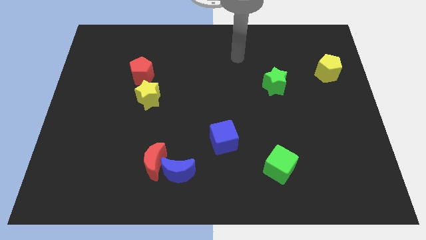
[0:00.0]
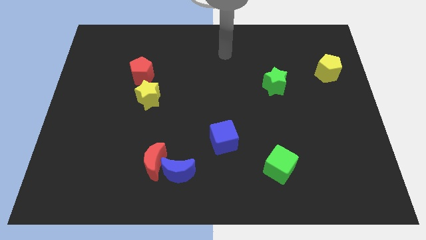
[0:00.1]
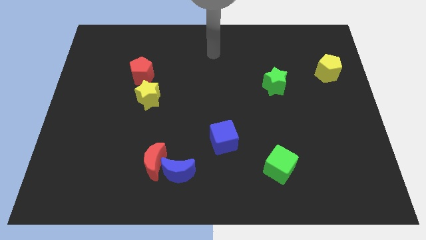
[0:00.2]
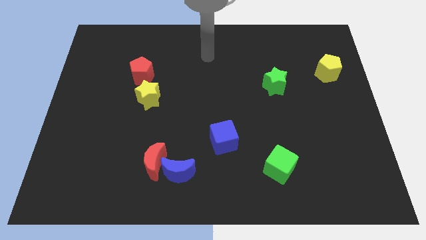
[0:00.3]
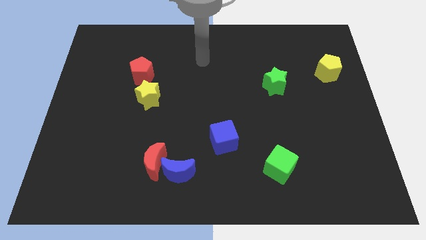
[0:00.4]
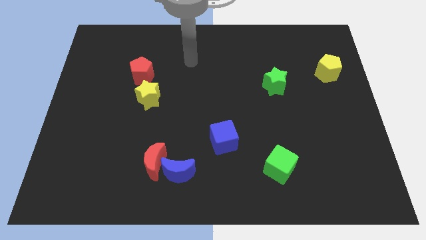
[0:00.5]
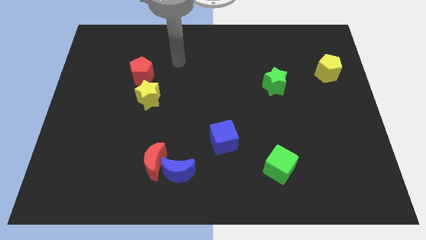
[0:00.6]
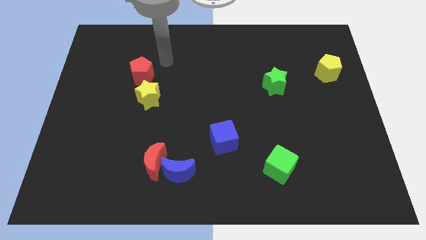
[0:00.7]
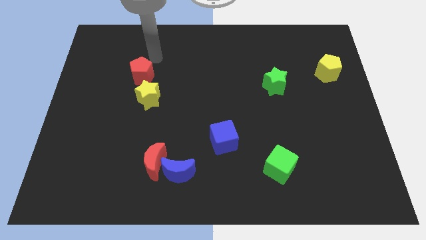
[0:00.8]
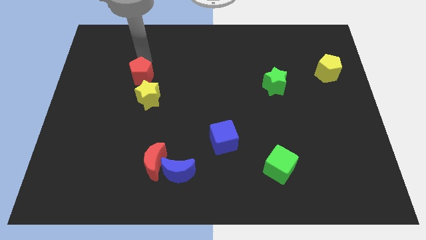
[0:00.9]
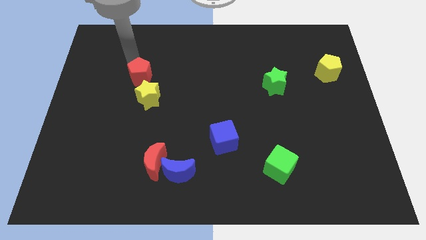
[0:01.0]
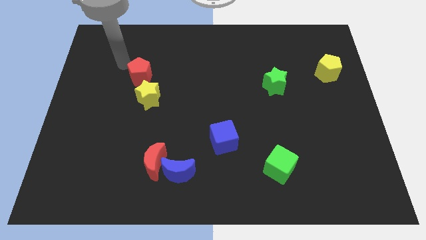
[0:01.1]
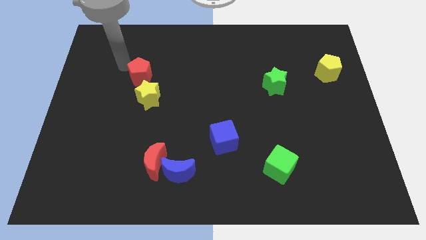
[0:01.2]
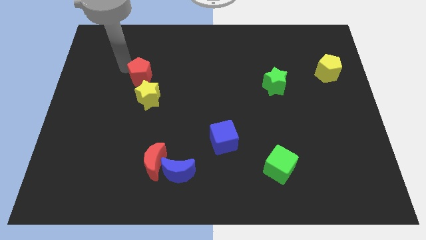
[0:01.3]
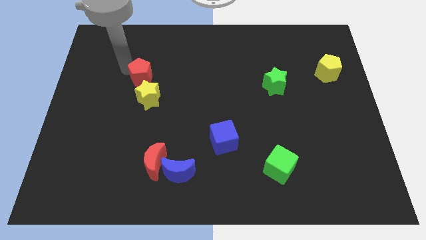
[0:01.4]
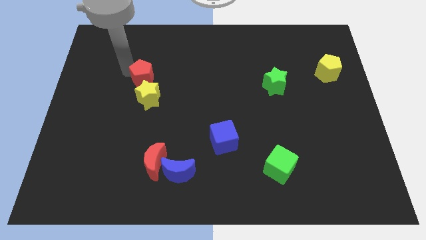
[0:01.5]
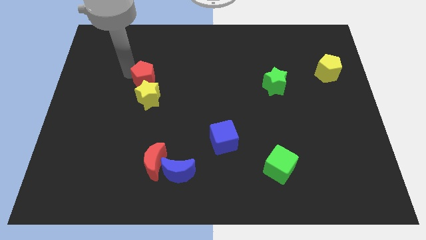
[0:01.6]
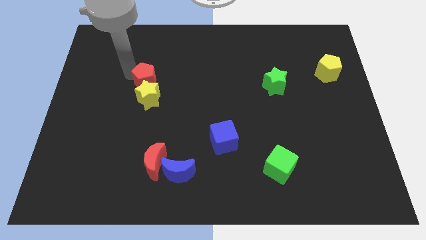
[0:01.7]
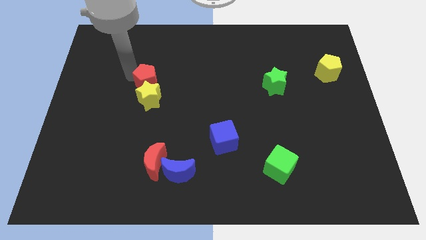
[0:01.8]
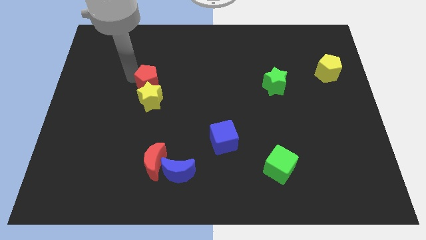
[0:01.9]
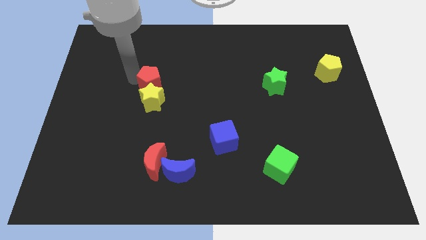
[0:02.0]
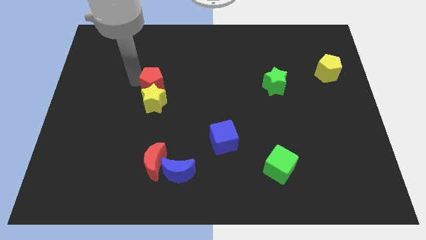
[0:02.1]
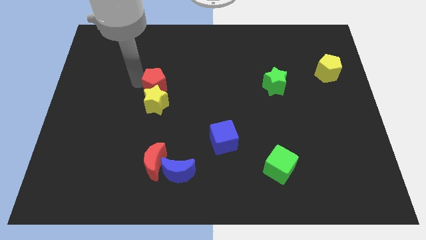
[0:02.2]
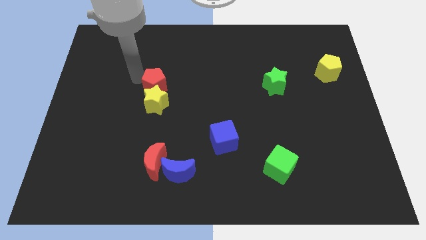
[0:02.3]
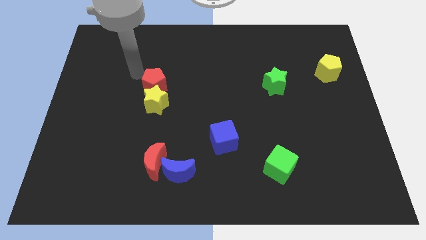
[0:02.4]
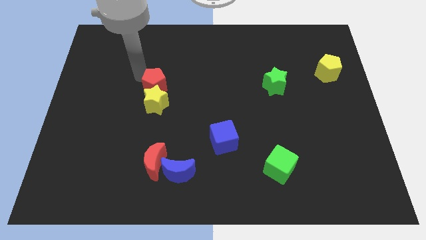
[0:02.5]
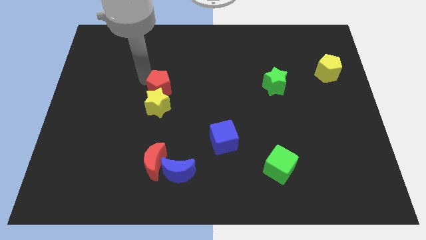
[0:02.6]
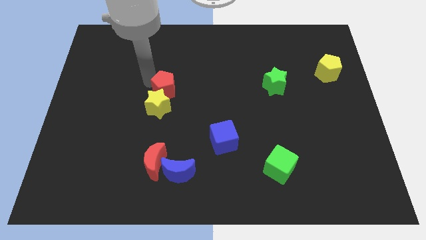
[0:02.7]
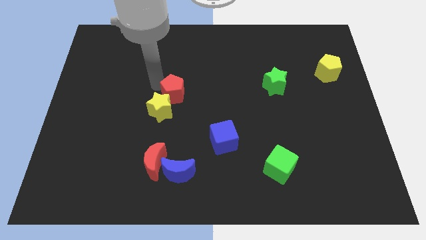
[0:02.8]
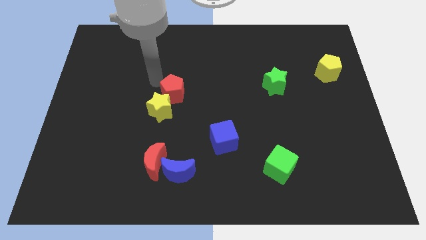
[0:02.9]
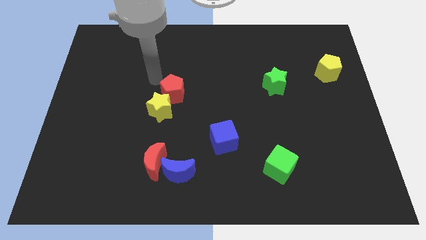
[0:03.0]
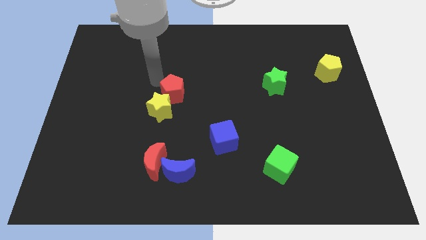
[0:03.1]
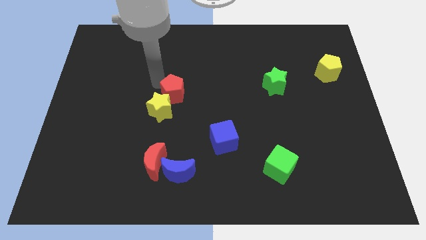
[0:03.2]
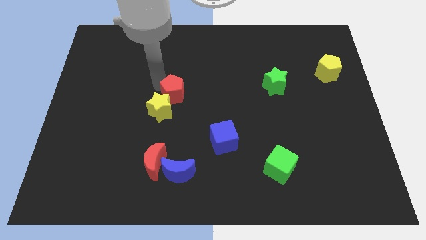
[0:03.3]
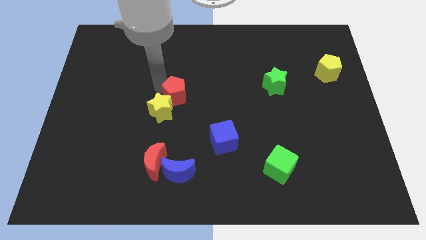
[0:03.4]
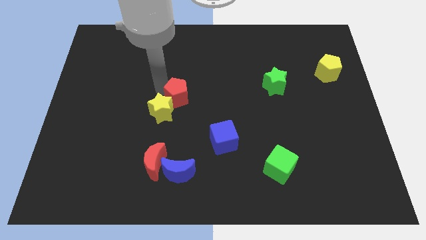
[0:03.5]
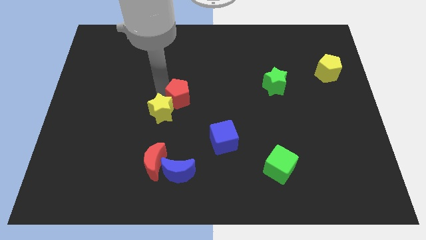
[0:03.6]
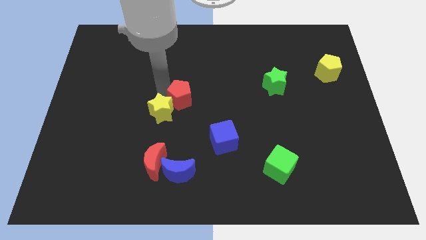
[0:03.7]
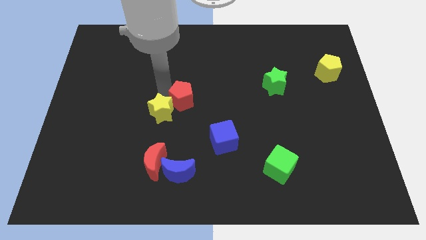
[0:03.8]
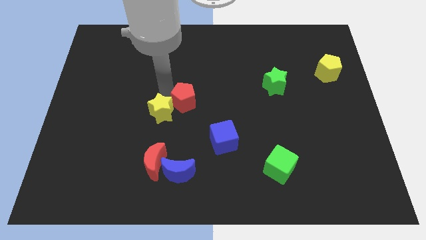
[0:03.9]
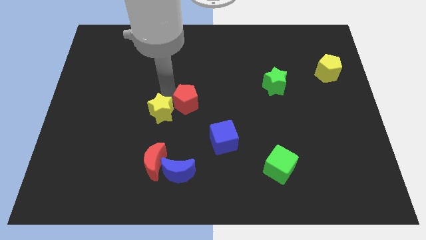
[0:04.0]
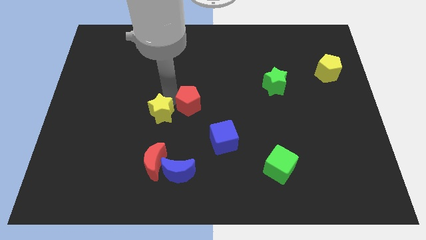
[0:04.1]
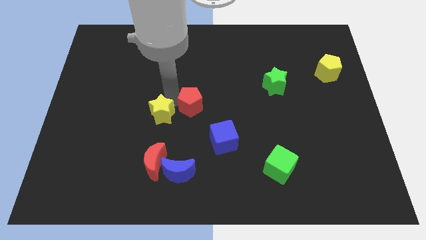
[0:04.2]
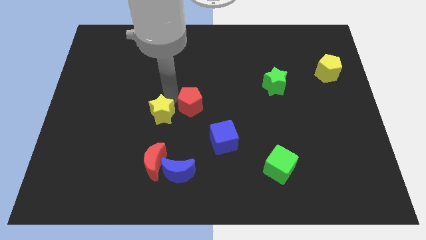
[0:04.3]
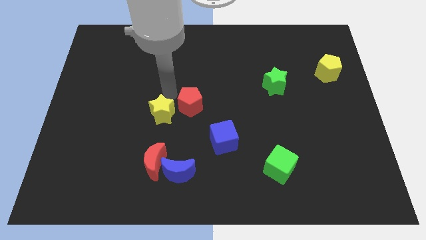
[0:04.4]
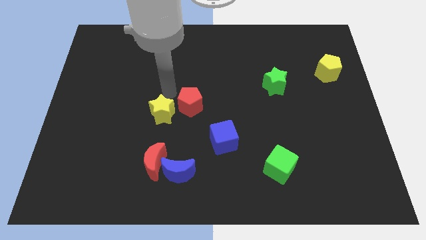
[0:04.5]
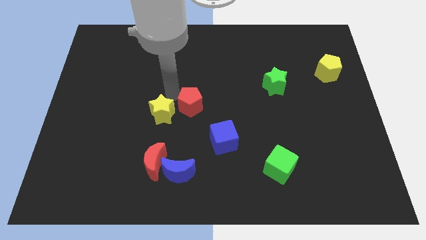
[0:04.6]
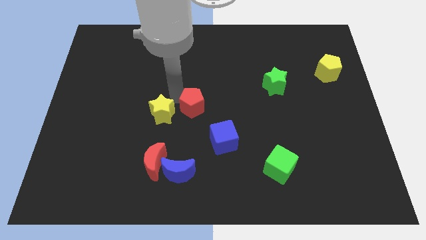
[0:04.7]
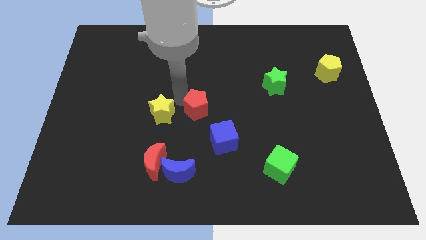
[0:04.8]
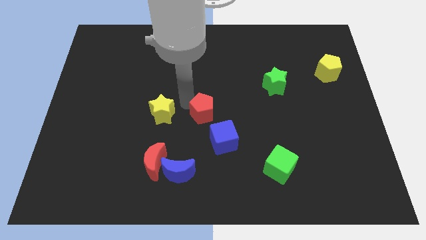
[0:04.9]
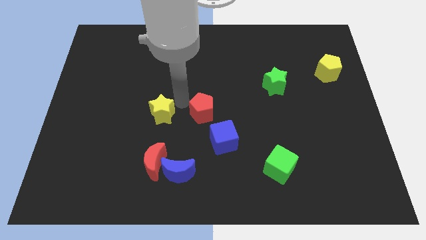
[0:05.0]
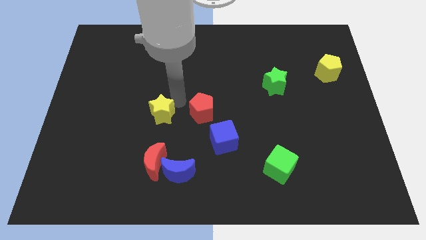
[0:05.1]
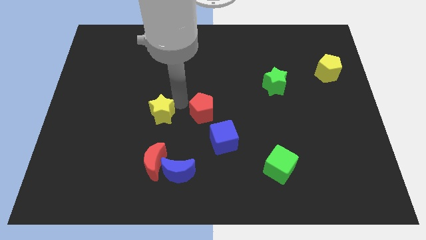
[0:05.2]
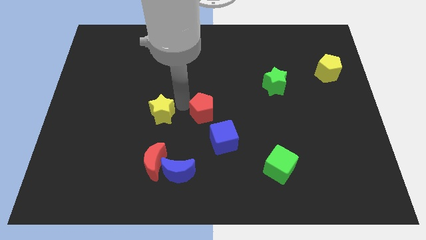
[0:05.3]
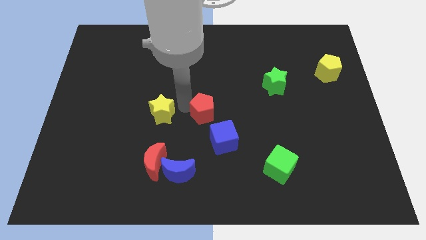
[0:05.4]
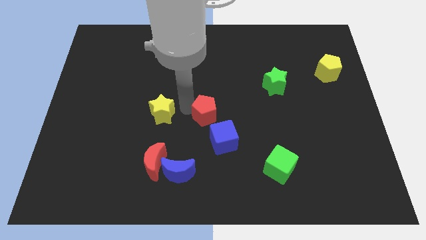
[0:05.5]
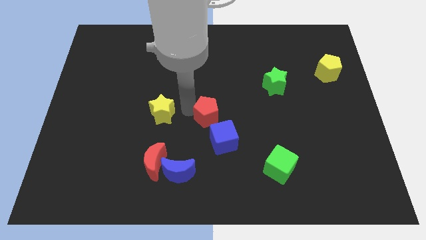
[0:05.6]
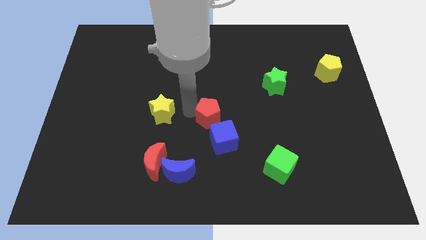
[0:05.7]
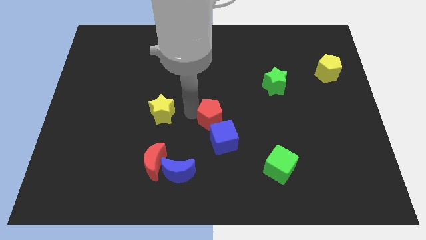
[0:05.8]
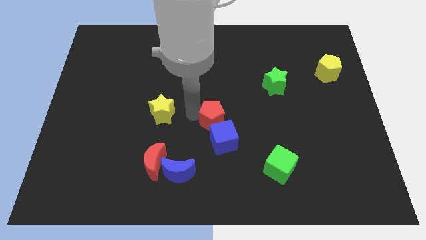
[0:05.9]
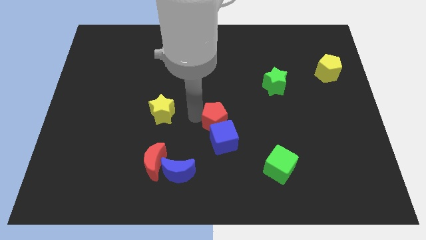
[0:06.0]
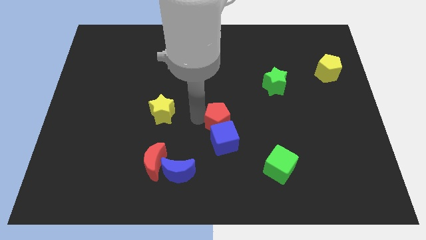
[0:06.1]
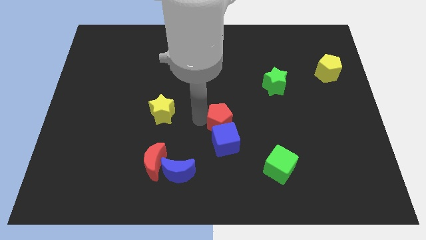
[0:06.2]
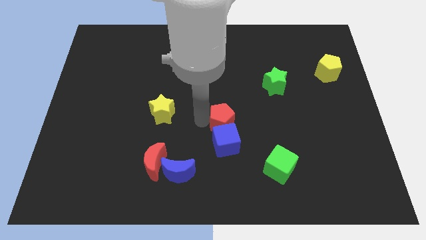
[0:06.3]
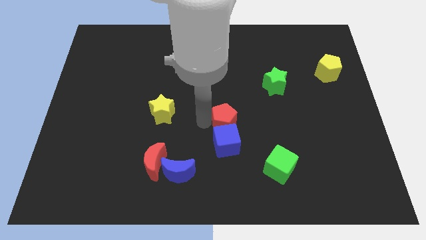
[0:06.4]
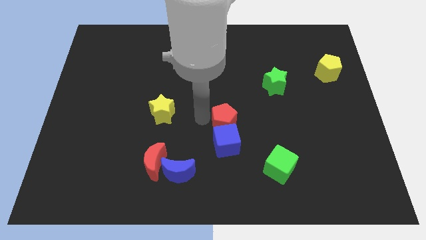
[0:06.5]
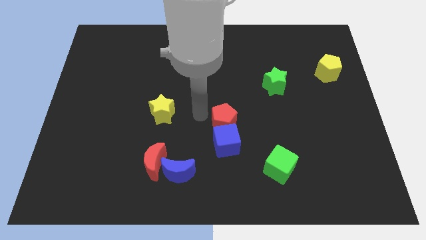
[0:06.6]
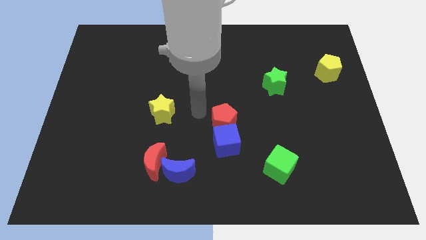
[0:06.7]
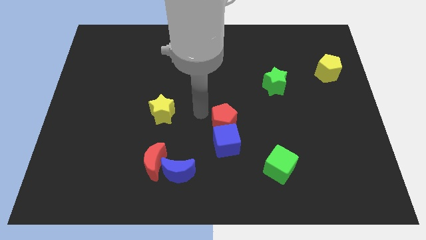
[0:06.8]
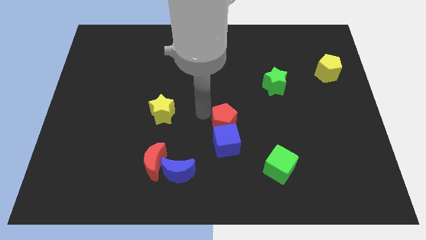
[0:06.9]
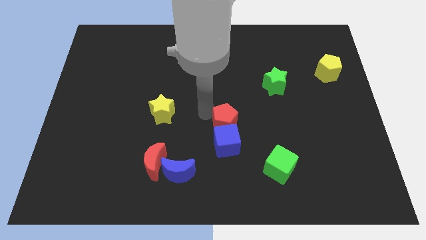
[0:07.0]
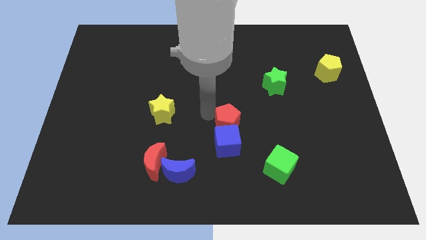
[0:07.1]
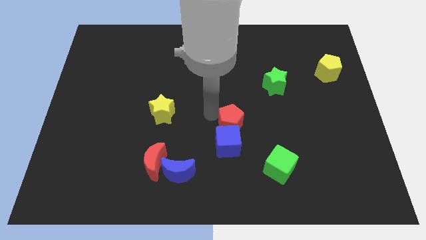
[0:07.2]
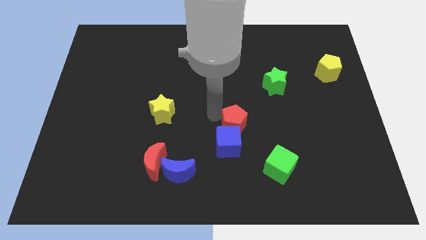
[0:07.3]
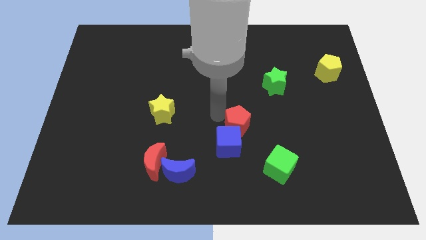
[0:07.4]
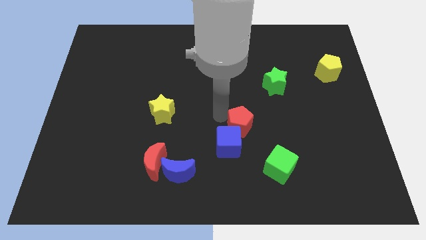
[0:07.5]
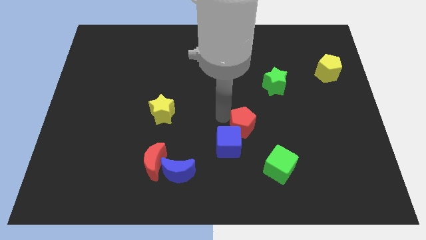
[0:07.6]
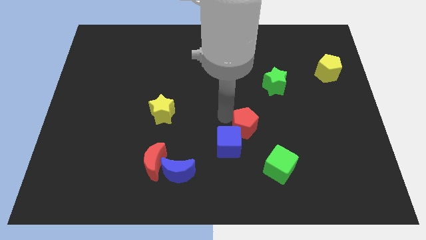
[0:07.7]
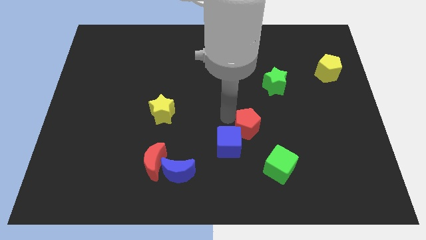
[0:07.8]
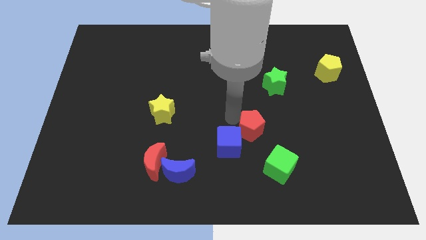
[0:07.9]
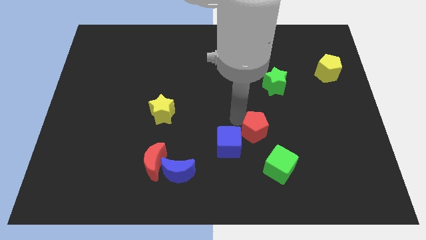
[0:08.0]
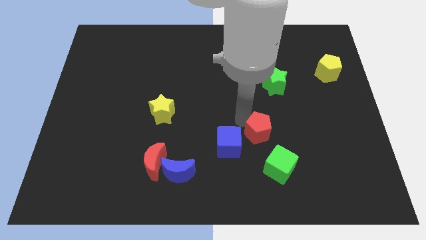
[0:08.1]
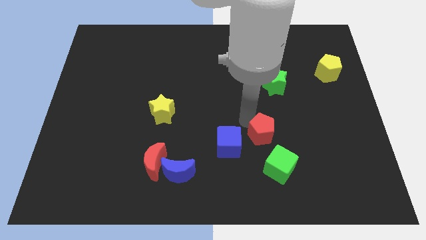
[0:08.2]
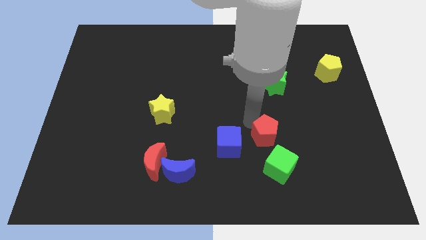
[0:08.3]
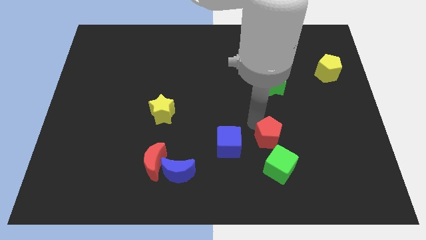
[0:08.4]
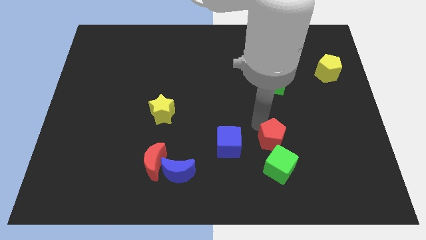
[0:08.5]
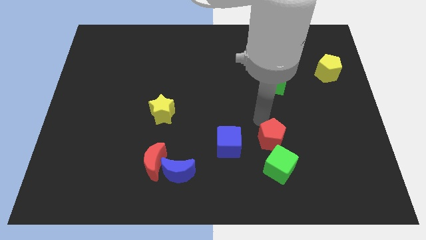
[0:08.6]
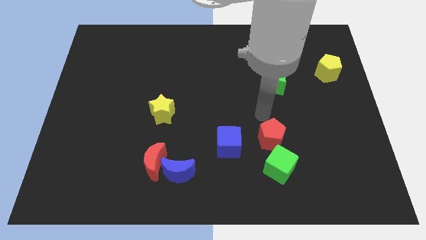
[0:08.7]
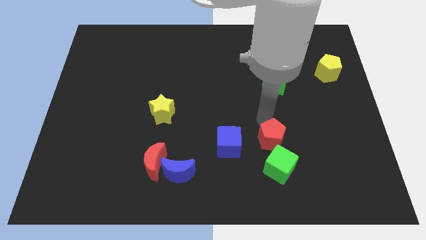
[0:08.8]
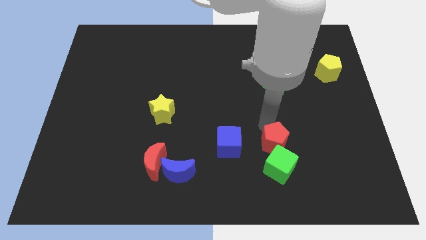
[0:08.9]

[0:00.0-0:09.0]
push the red pentagon next to the green cube
